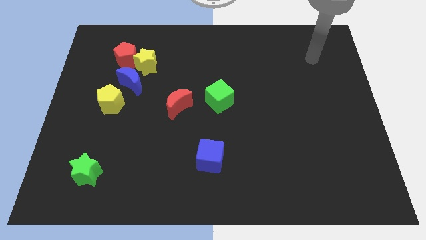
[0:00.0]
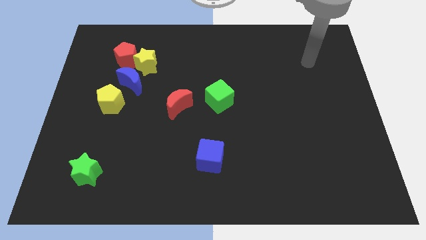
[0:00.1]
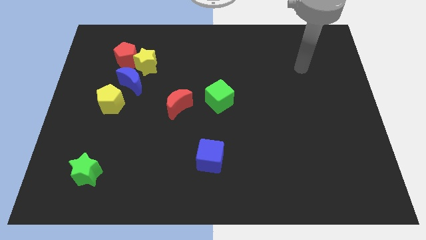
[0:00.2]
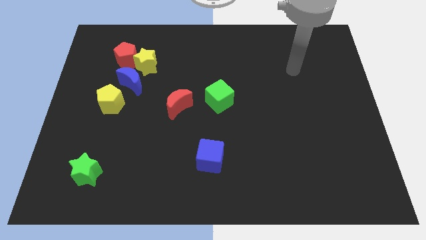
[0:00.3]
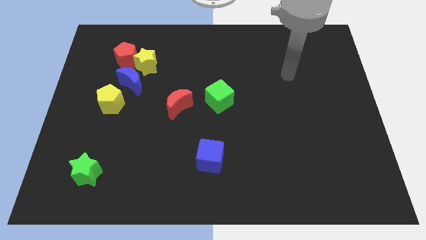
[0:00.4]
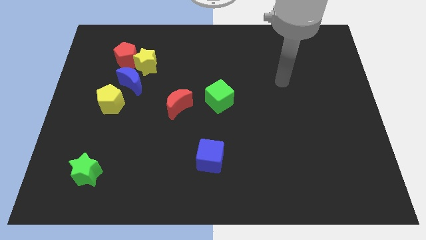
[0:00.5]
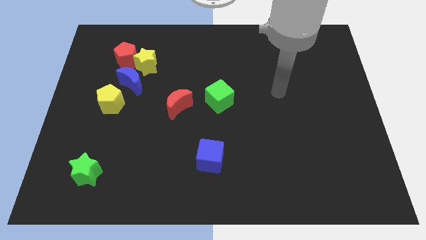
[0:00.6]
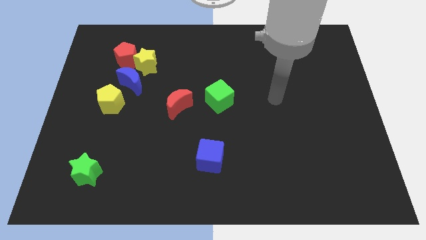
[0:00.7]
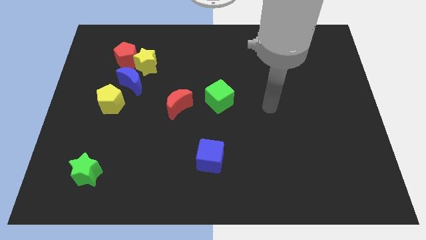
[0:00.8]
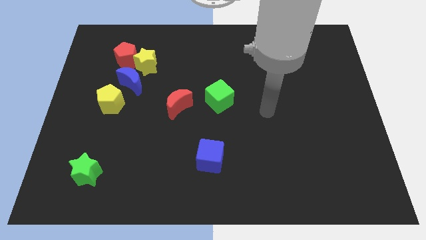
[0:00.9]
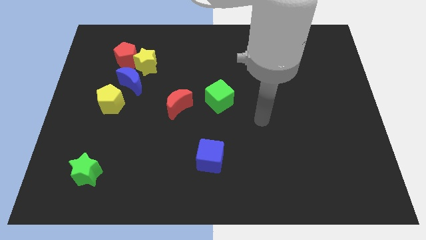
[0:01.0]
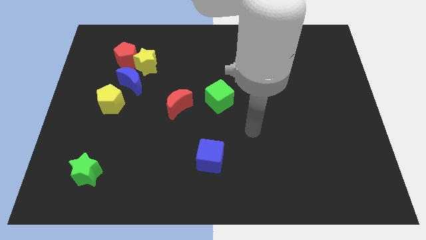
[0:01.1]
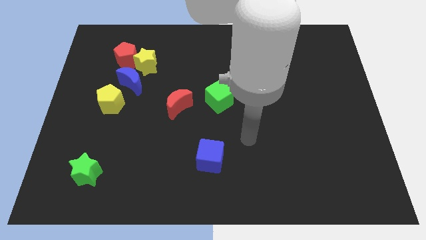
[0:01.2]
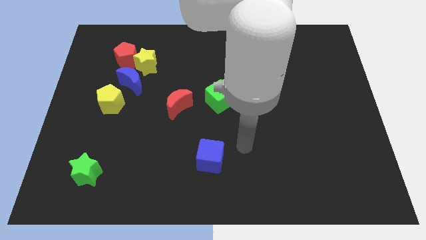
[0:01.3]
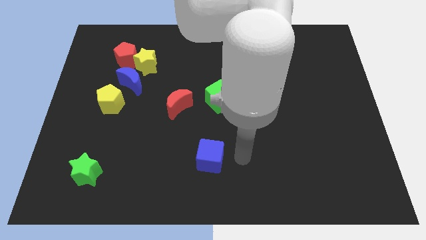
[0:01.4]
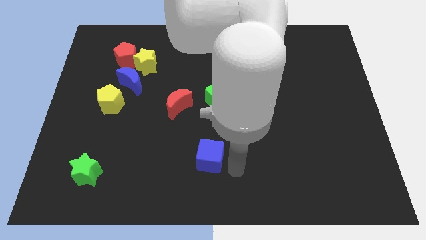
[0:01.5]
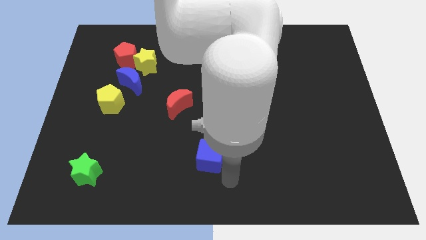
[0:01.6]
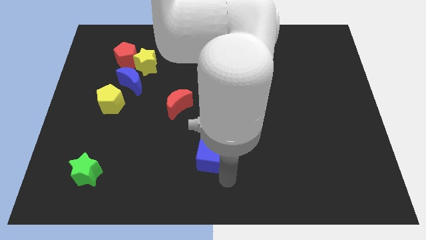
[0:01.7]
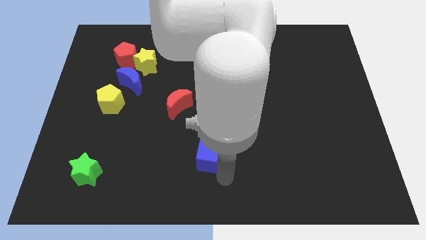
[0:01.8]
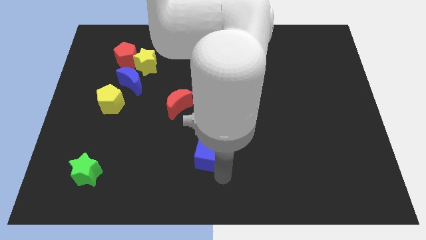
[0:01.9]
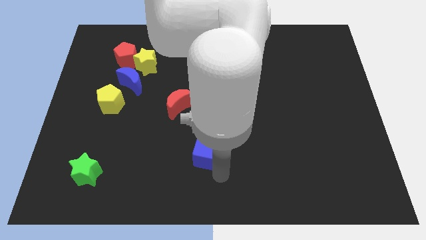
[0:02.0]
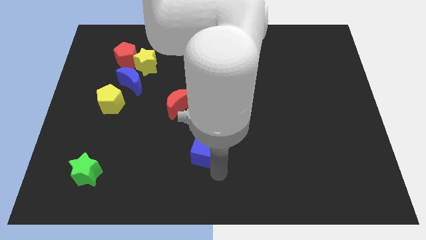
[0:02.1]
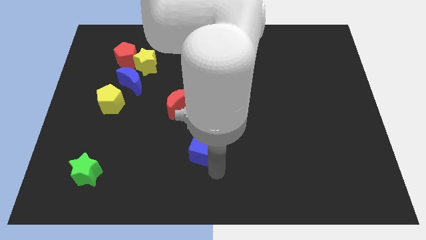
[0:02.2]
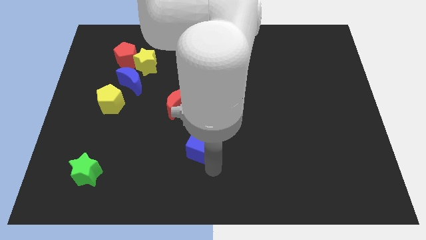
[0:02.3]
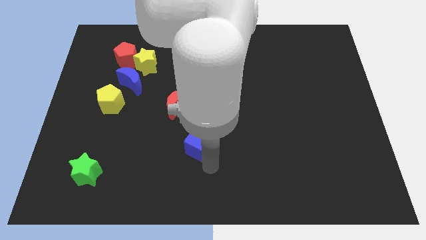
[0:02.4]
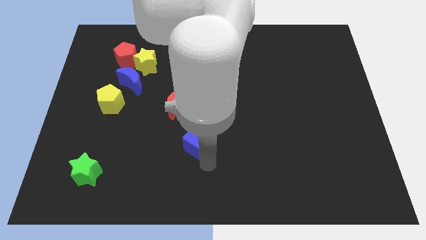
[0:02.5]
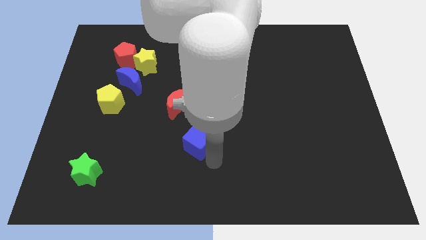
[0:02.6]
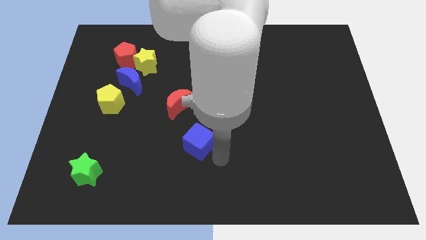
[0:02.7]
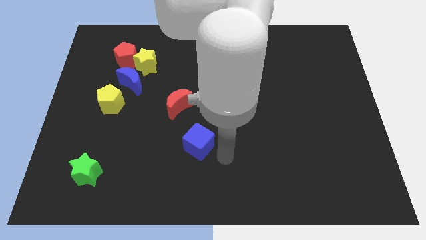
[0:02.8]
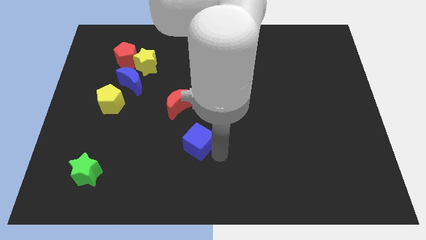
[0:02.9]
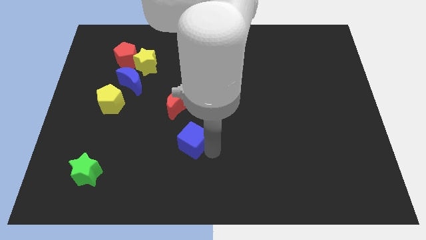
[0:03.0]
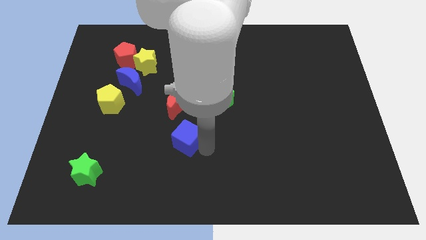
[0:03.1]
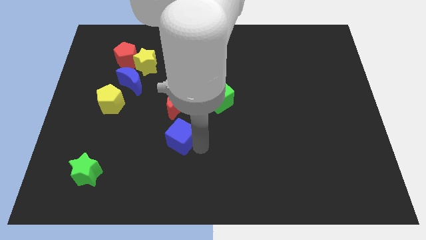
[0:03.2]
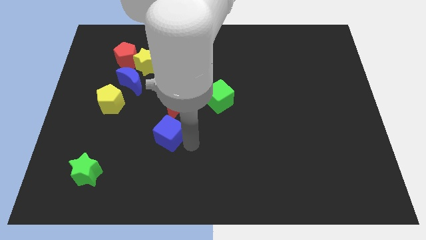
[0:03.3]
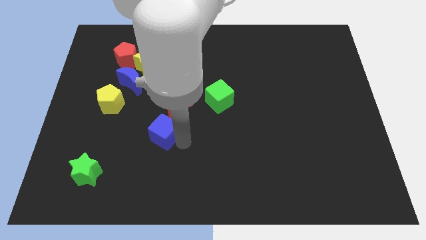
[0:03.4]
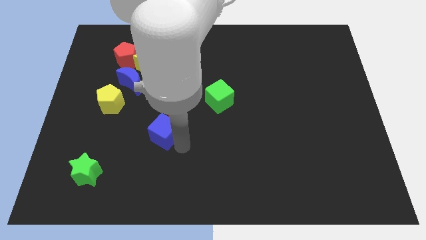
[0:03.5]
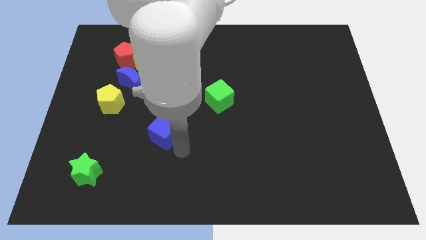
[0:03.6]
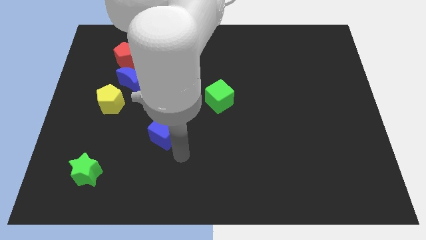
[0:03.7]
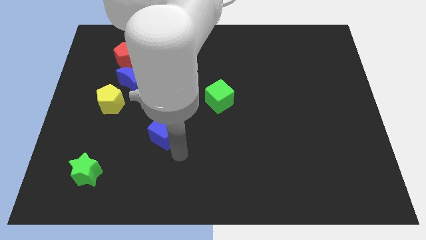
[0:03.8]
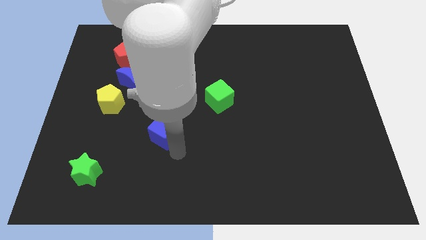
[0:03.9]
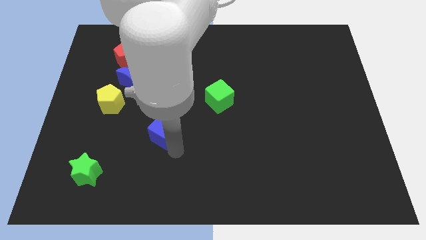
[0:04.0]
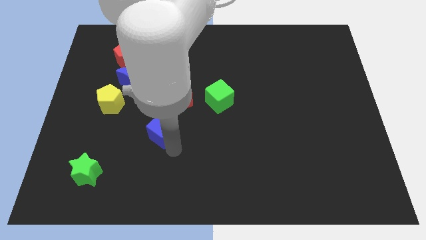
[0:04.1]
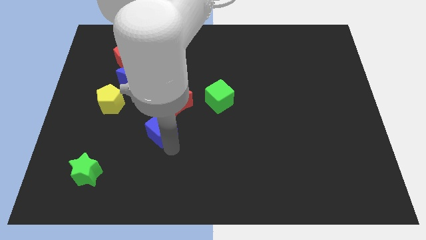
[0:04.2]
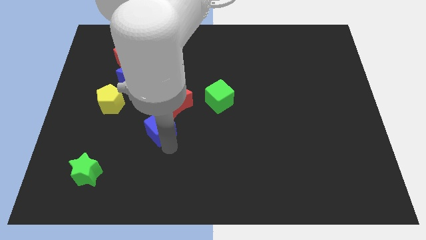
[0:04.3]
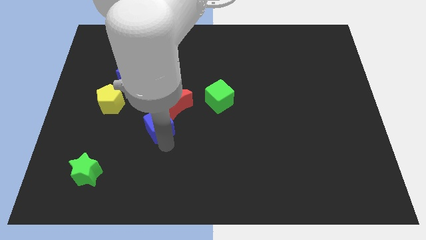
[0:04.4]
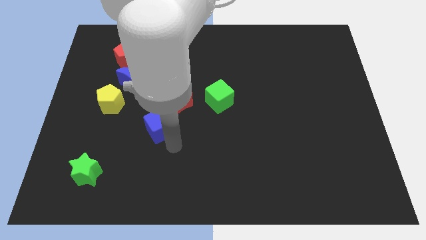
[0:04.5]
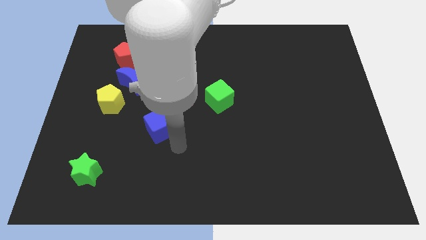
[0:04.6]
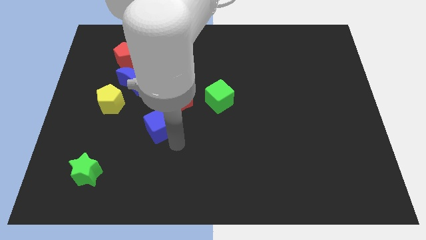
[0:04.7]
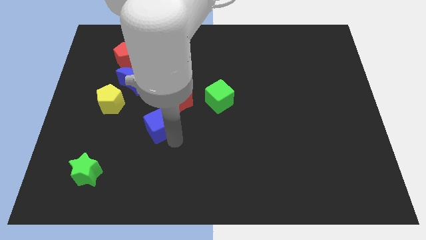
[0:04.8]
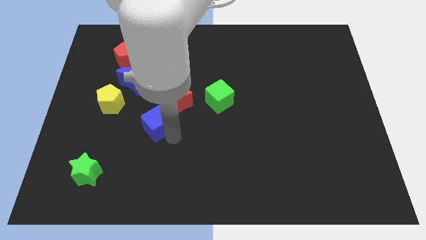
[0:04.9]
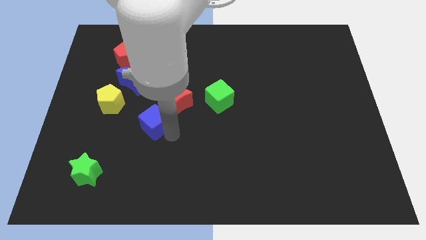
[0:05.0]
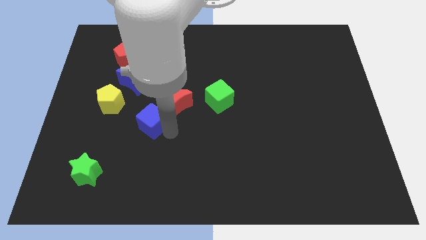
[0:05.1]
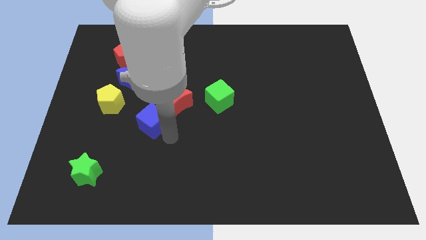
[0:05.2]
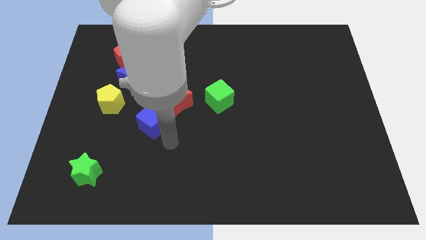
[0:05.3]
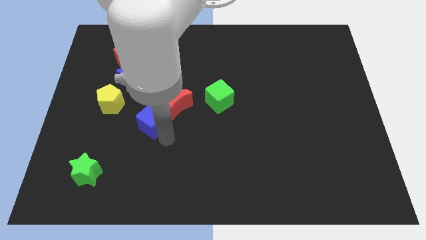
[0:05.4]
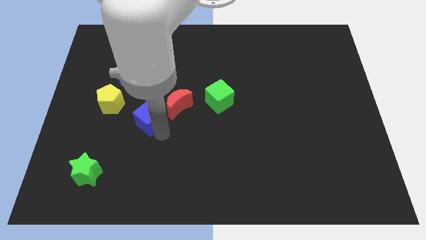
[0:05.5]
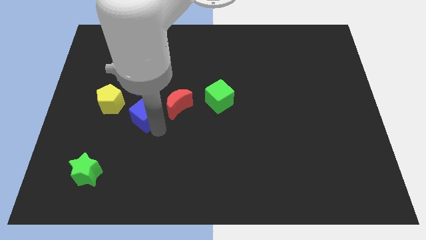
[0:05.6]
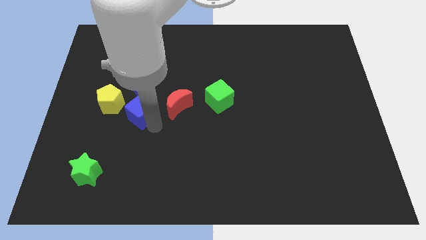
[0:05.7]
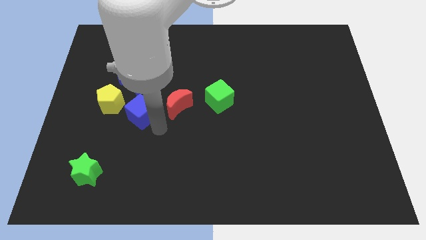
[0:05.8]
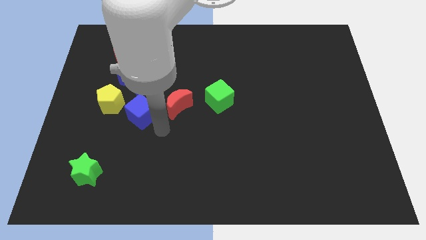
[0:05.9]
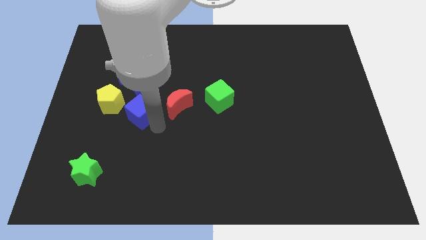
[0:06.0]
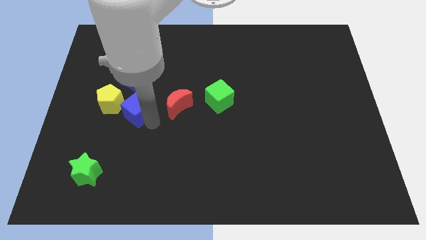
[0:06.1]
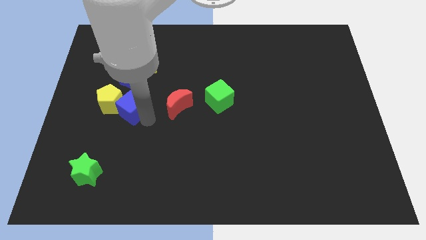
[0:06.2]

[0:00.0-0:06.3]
put the blue cube close to the yellow pentagon
